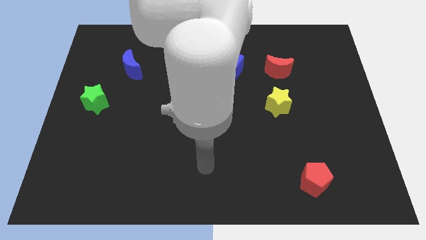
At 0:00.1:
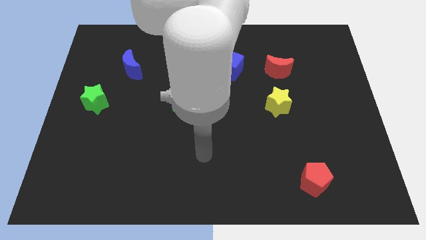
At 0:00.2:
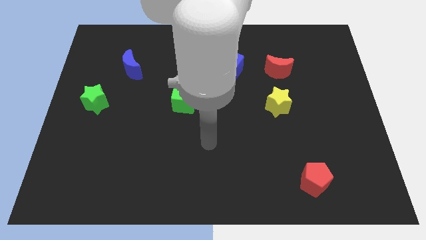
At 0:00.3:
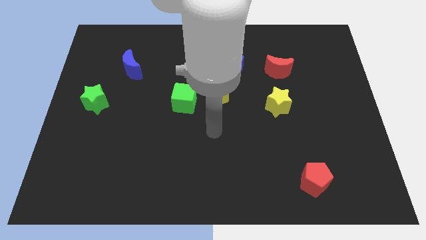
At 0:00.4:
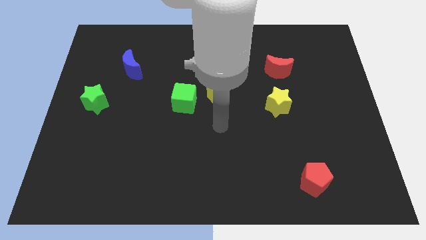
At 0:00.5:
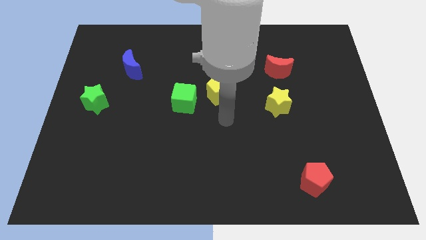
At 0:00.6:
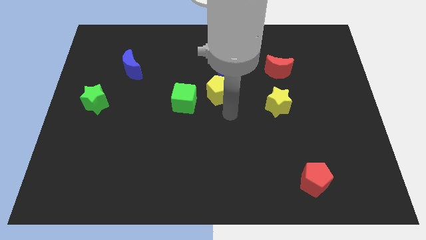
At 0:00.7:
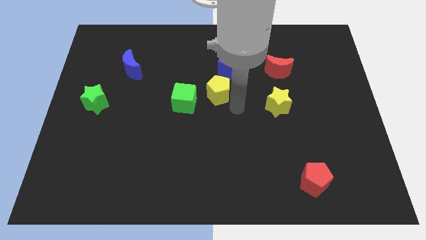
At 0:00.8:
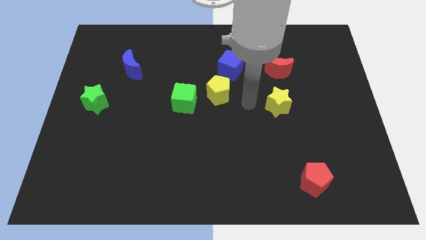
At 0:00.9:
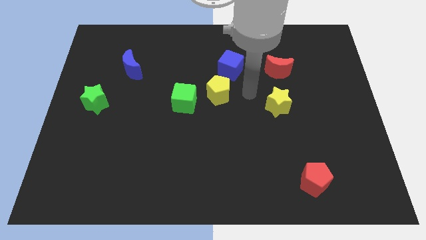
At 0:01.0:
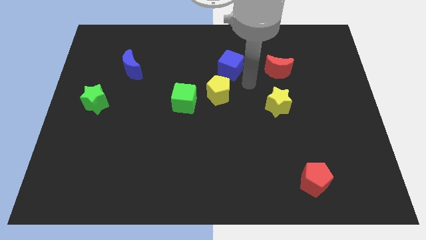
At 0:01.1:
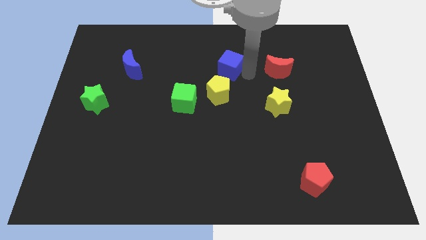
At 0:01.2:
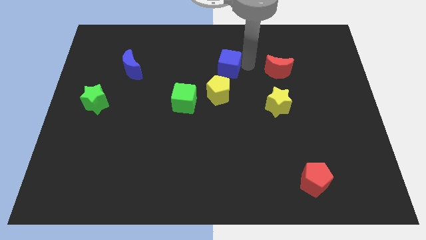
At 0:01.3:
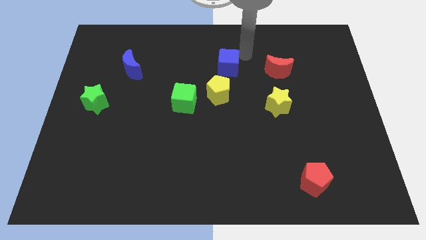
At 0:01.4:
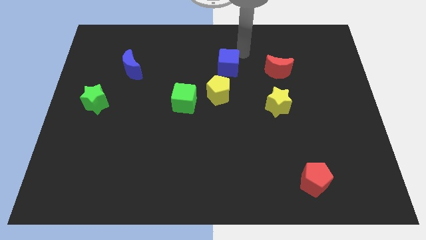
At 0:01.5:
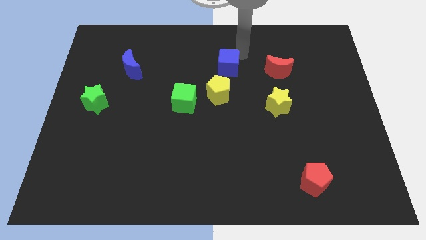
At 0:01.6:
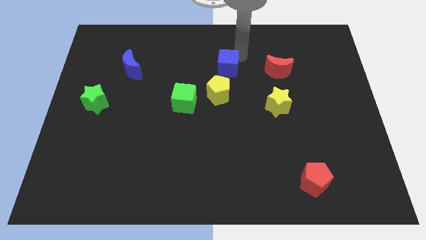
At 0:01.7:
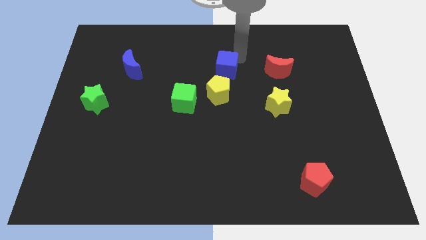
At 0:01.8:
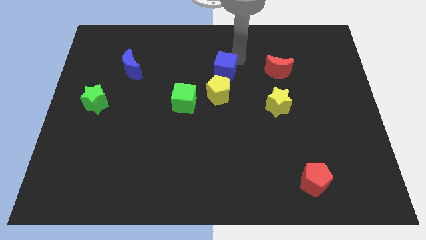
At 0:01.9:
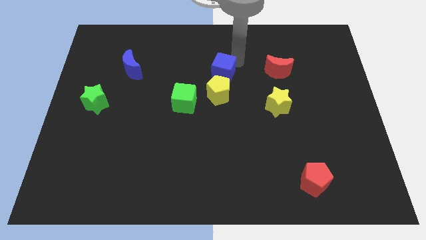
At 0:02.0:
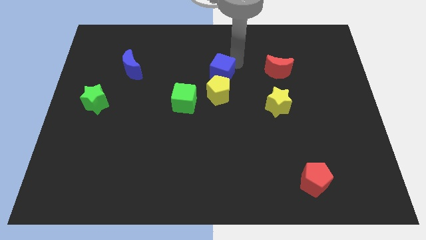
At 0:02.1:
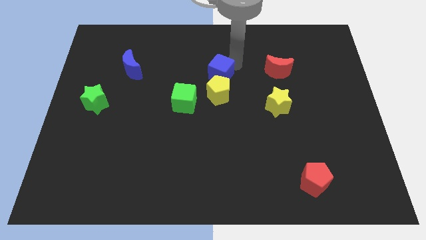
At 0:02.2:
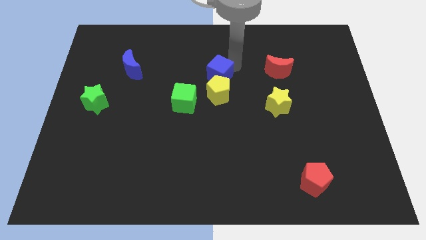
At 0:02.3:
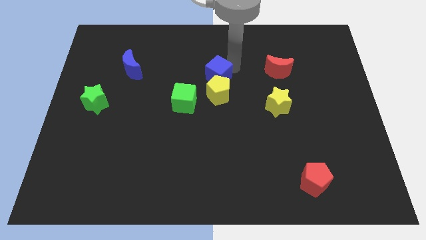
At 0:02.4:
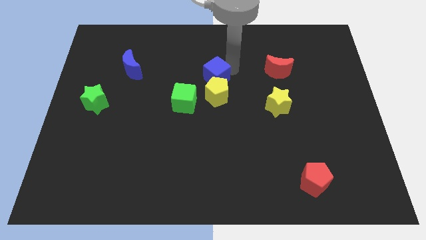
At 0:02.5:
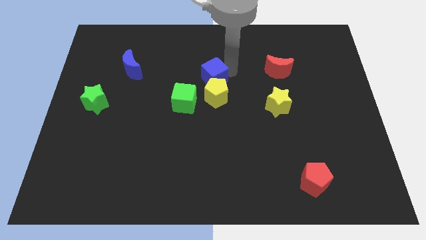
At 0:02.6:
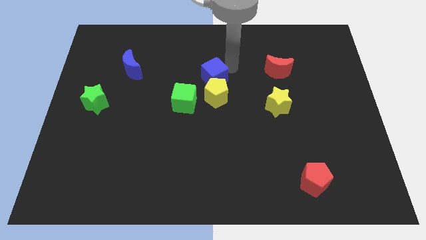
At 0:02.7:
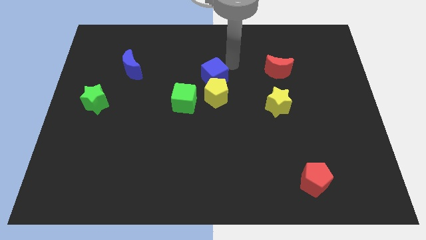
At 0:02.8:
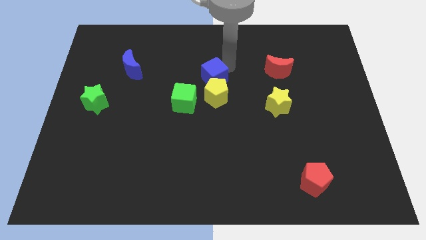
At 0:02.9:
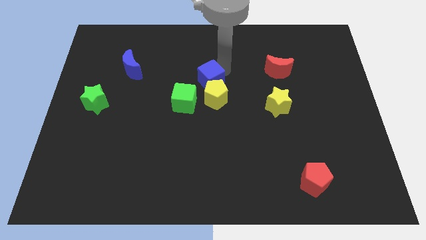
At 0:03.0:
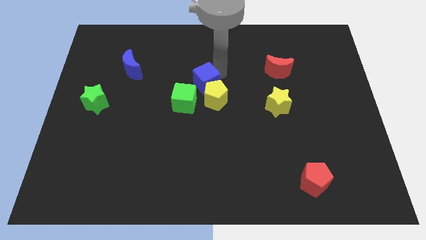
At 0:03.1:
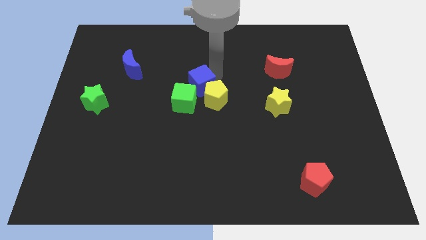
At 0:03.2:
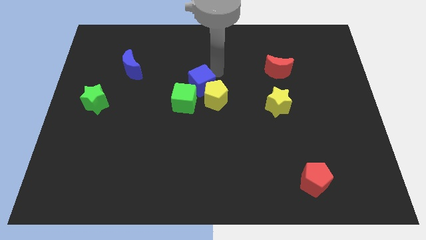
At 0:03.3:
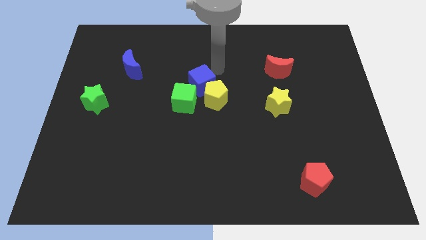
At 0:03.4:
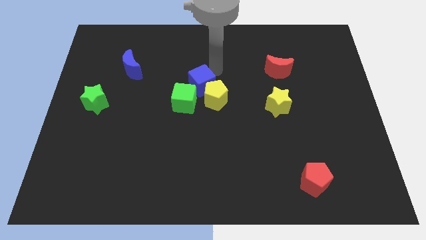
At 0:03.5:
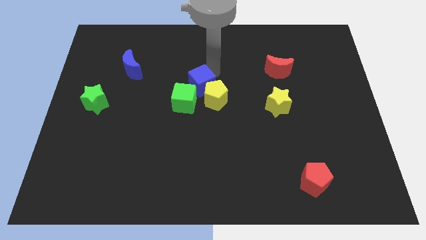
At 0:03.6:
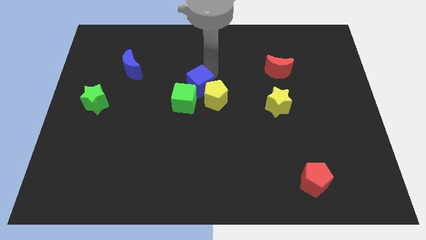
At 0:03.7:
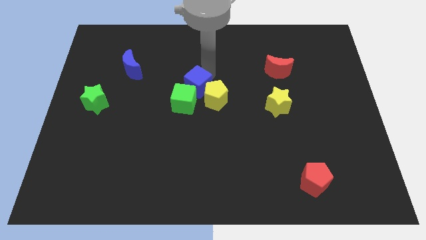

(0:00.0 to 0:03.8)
put the blue cube to the green cube

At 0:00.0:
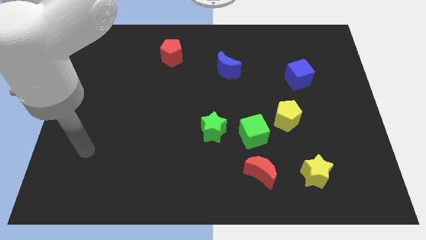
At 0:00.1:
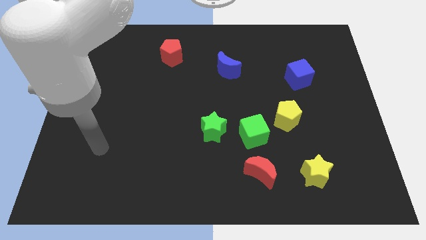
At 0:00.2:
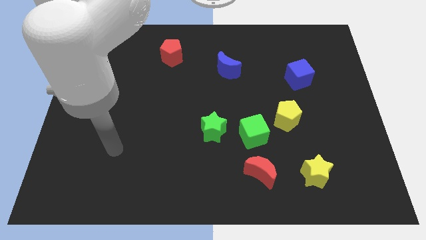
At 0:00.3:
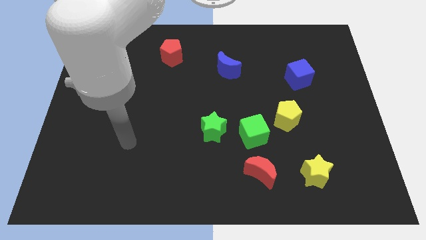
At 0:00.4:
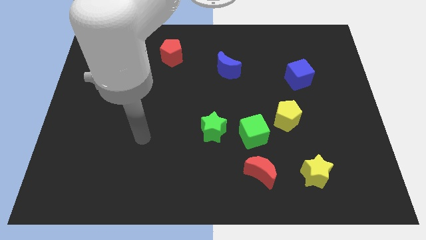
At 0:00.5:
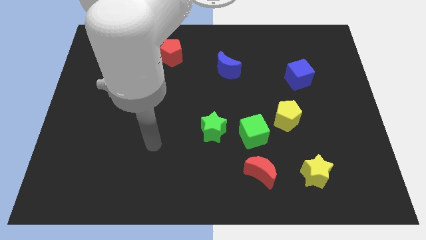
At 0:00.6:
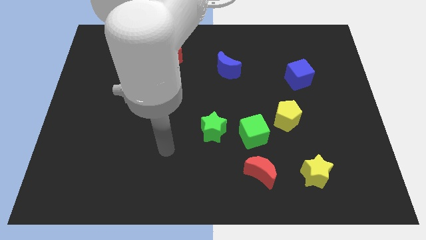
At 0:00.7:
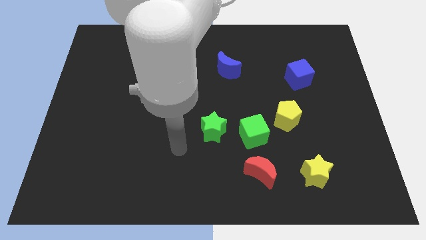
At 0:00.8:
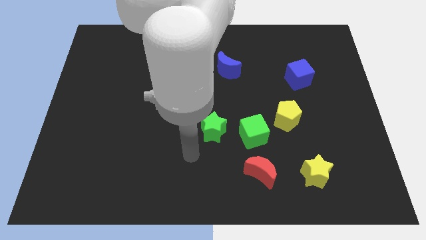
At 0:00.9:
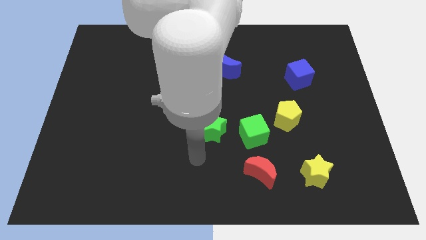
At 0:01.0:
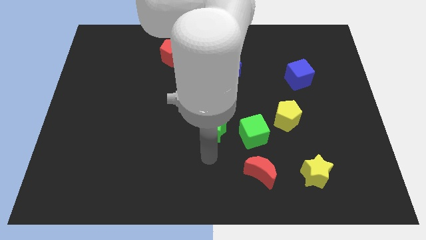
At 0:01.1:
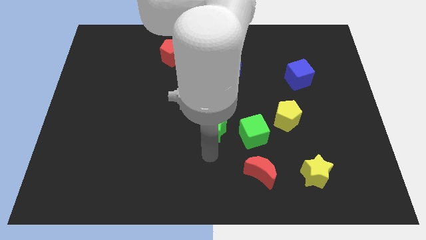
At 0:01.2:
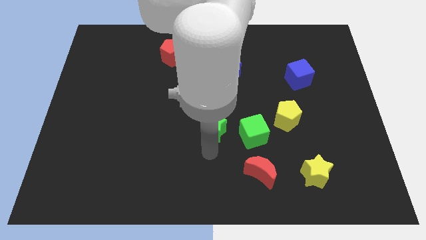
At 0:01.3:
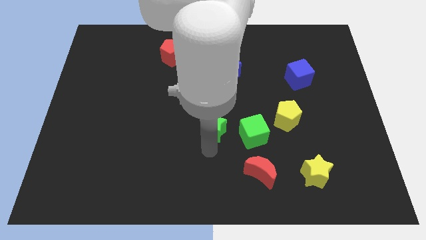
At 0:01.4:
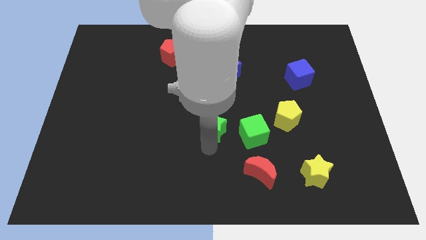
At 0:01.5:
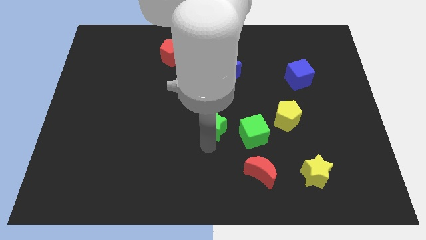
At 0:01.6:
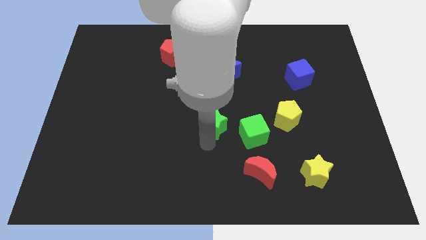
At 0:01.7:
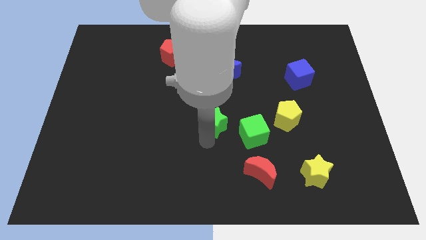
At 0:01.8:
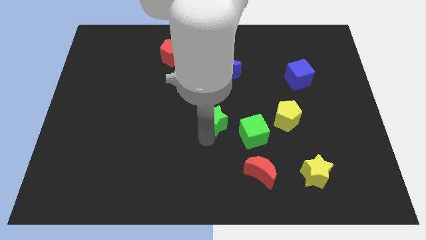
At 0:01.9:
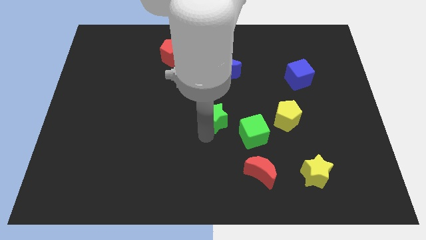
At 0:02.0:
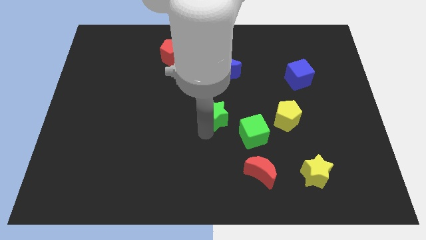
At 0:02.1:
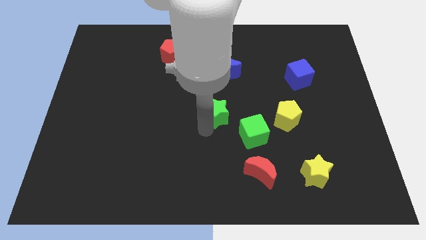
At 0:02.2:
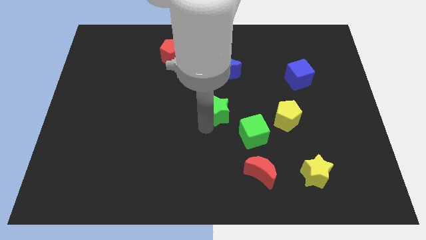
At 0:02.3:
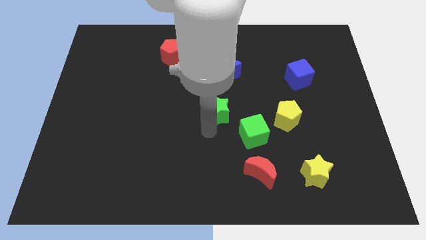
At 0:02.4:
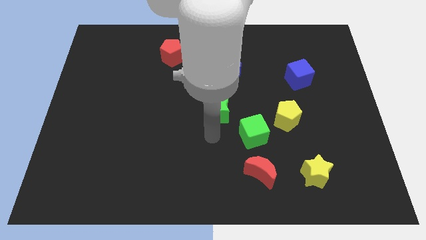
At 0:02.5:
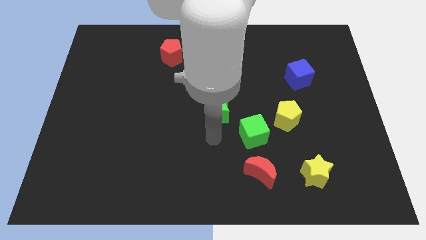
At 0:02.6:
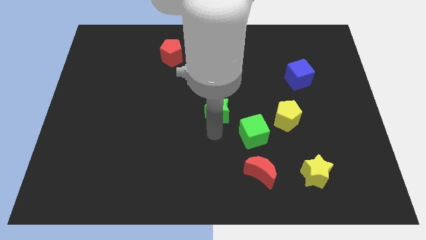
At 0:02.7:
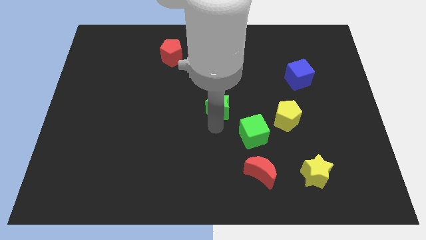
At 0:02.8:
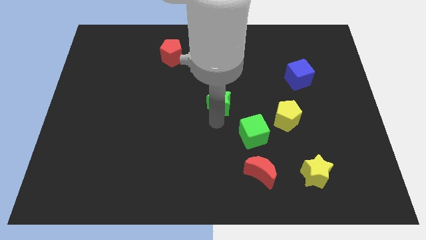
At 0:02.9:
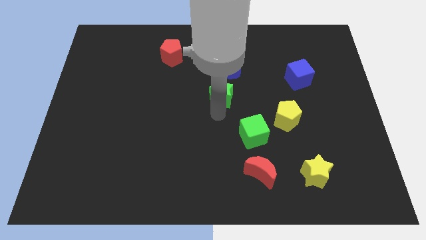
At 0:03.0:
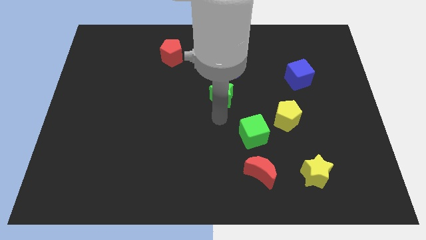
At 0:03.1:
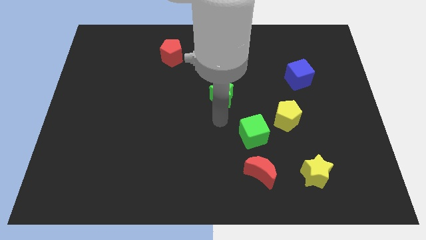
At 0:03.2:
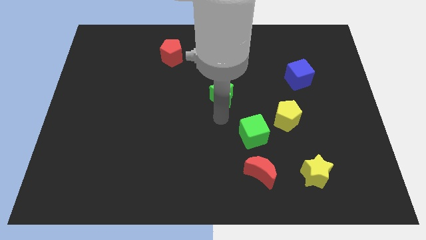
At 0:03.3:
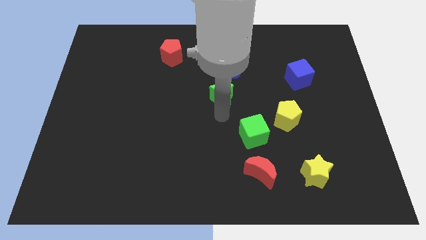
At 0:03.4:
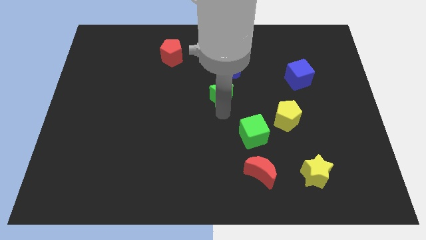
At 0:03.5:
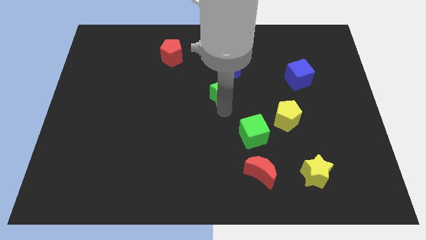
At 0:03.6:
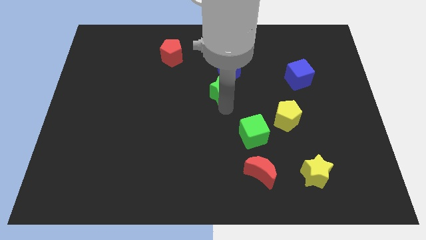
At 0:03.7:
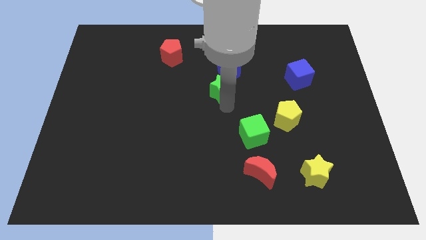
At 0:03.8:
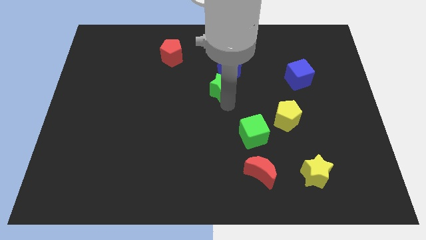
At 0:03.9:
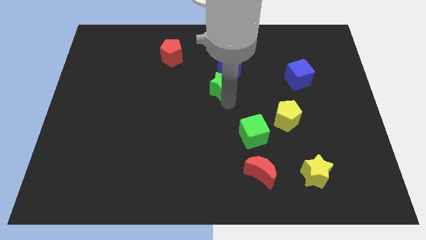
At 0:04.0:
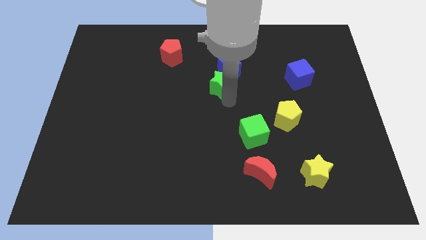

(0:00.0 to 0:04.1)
push the green star to the blue moon
